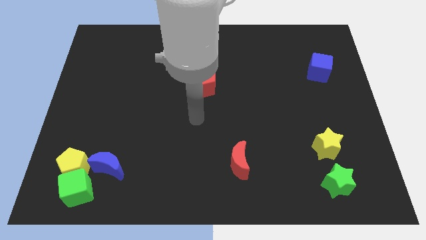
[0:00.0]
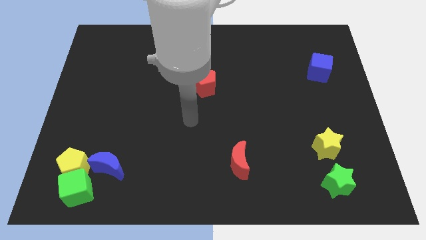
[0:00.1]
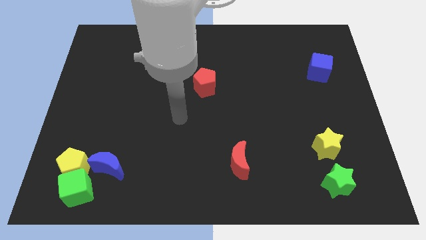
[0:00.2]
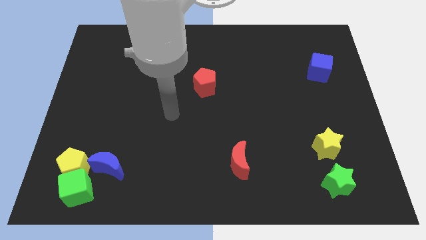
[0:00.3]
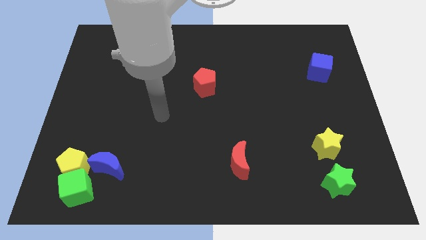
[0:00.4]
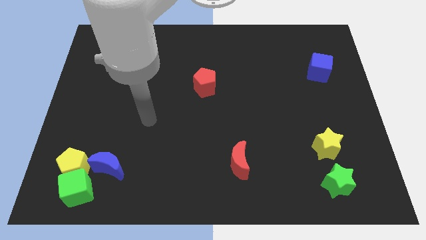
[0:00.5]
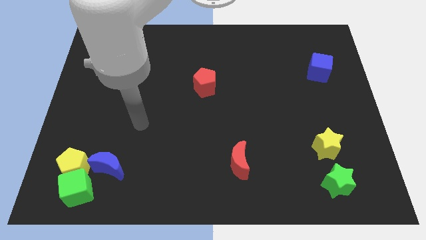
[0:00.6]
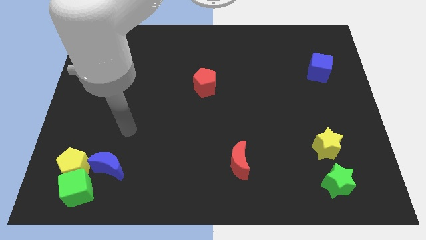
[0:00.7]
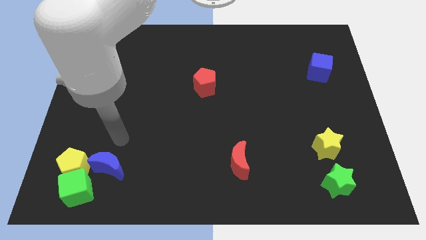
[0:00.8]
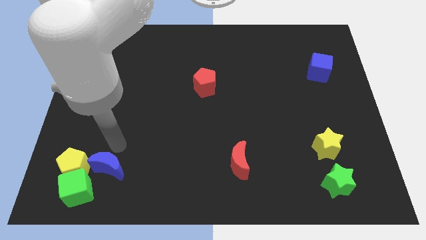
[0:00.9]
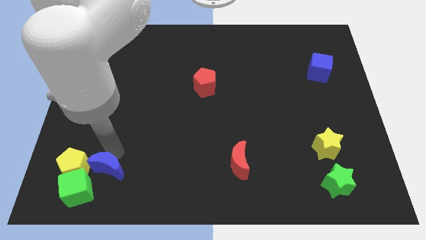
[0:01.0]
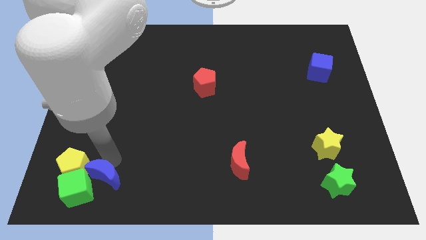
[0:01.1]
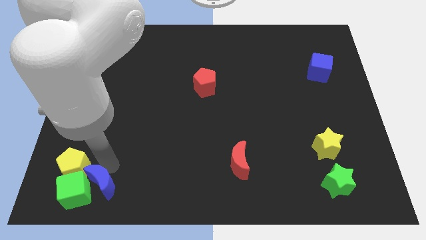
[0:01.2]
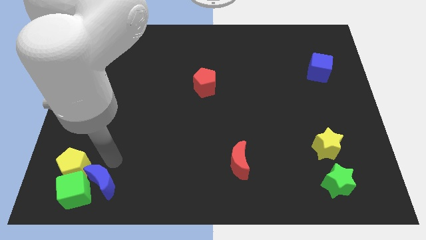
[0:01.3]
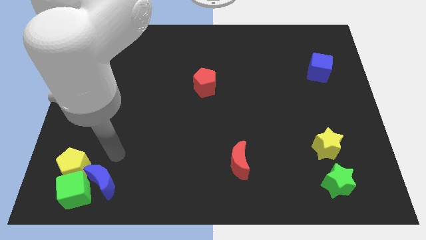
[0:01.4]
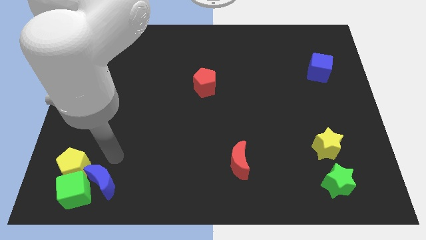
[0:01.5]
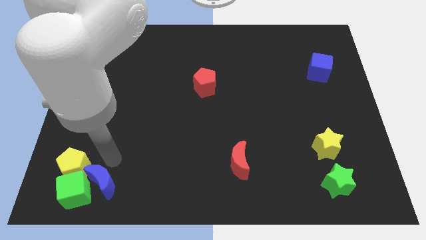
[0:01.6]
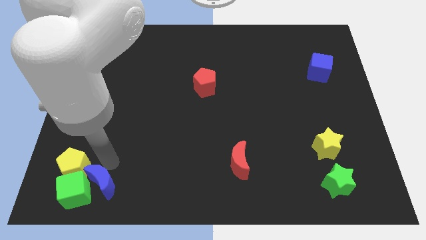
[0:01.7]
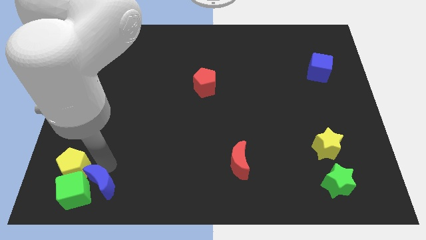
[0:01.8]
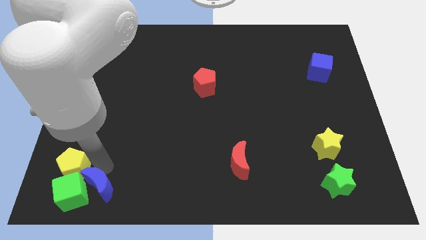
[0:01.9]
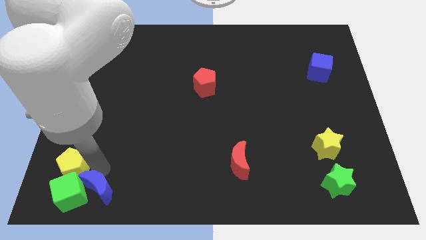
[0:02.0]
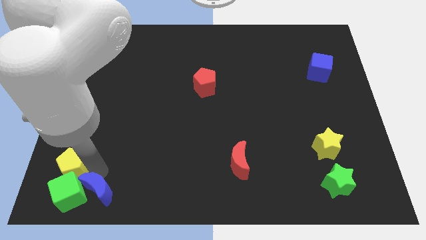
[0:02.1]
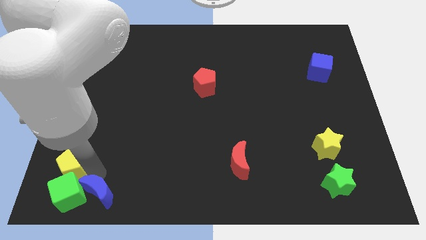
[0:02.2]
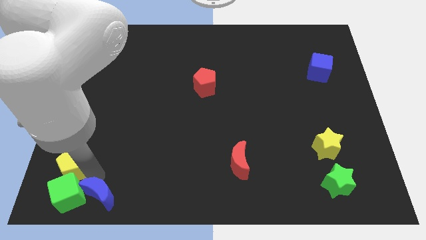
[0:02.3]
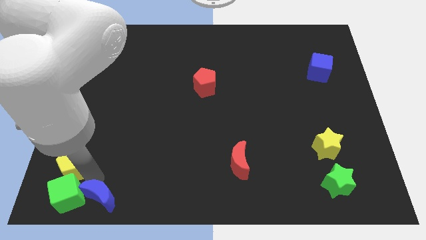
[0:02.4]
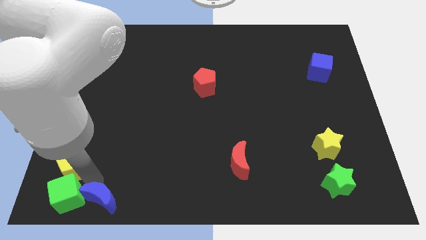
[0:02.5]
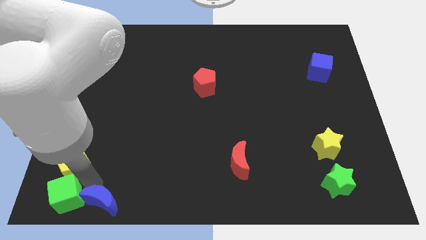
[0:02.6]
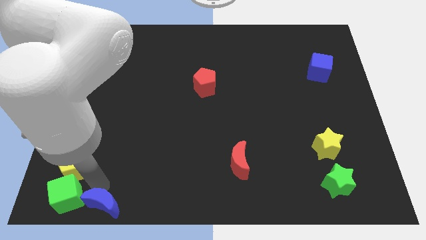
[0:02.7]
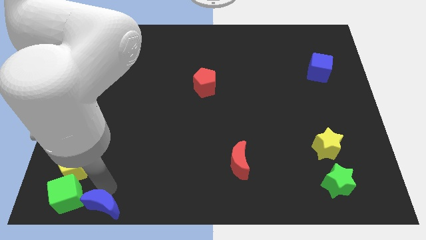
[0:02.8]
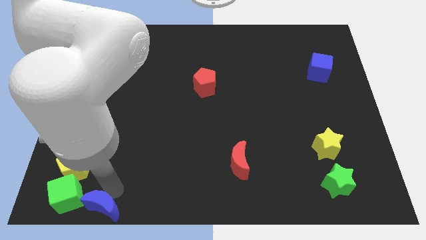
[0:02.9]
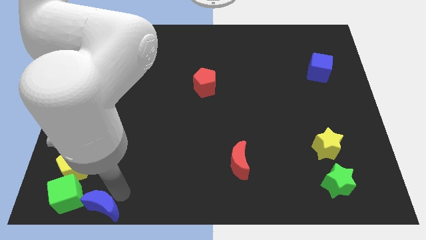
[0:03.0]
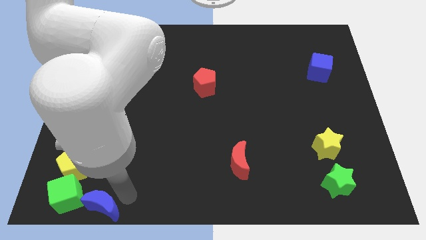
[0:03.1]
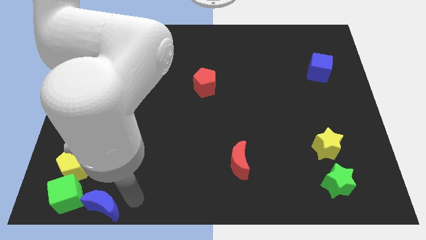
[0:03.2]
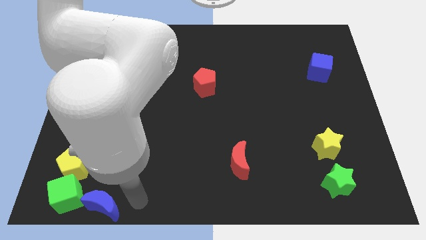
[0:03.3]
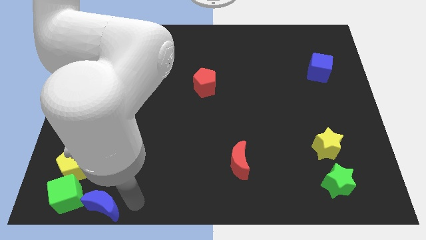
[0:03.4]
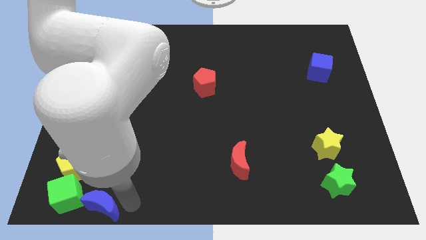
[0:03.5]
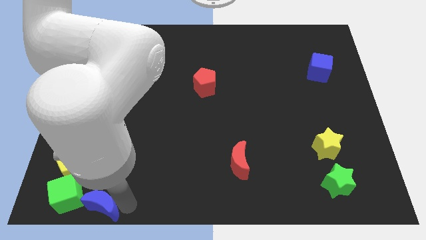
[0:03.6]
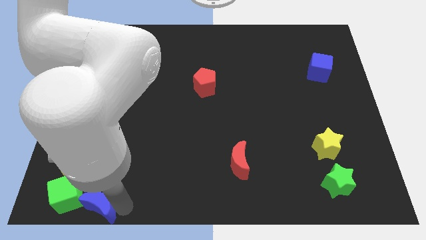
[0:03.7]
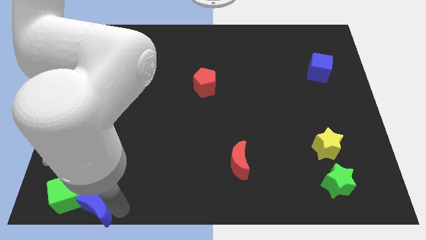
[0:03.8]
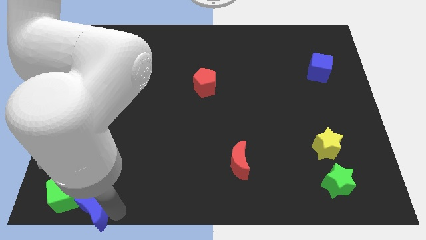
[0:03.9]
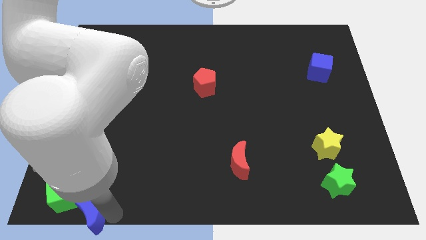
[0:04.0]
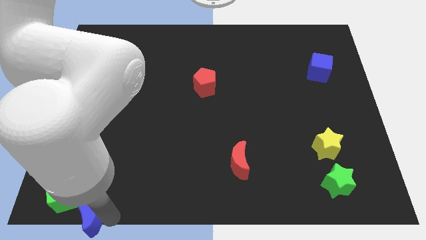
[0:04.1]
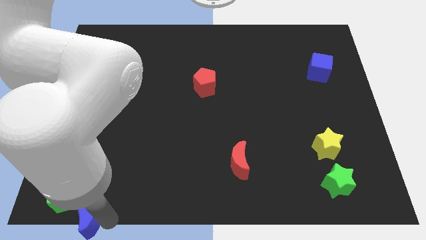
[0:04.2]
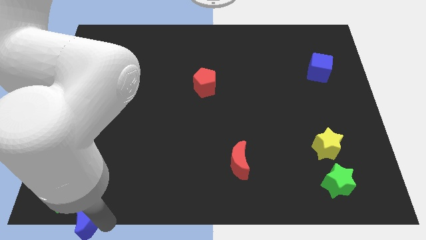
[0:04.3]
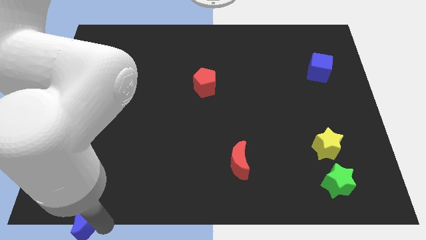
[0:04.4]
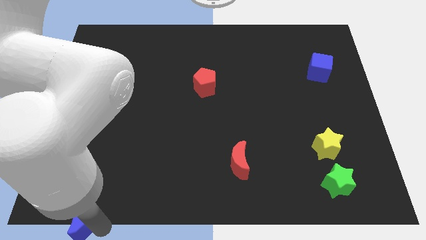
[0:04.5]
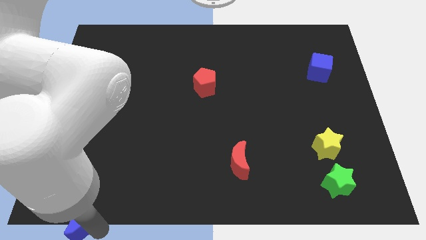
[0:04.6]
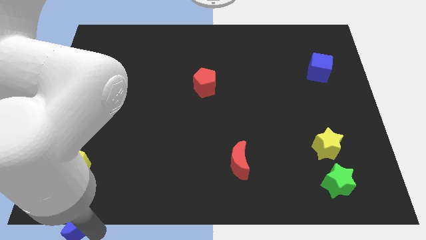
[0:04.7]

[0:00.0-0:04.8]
slide the blue moon to the lower left corner

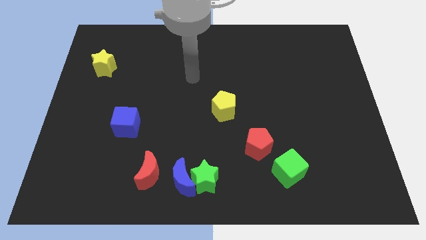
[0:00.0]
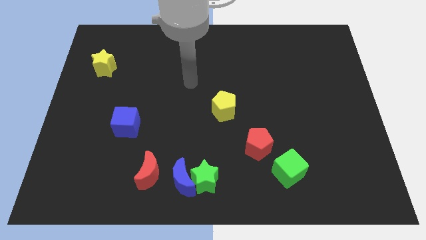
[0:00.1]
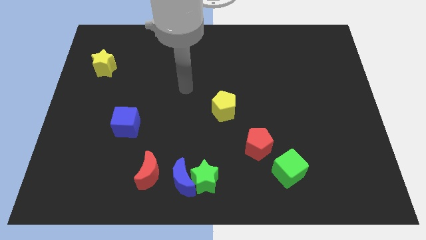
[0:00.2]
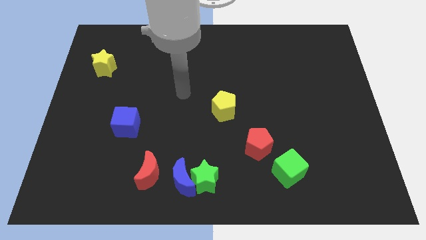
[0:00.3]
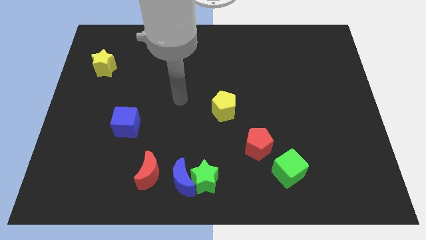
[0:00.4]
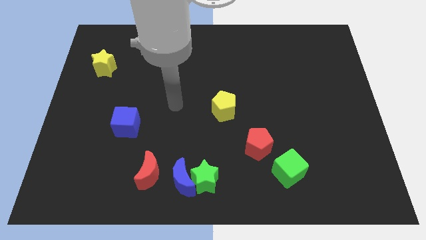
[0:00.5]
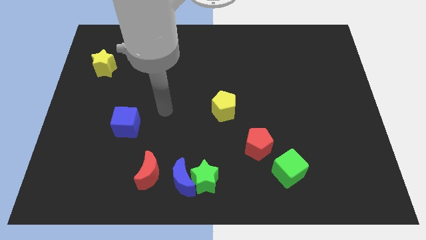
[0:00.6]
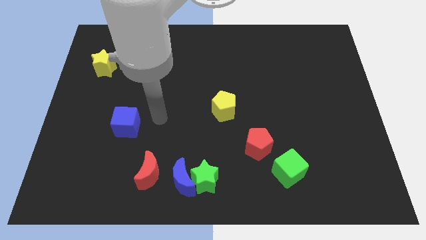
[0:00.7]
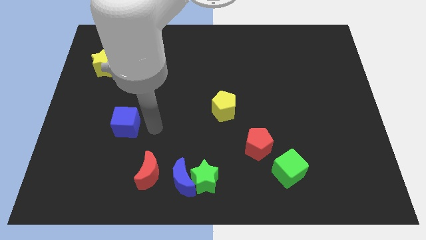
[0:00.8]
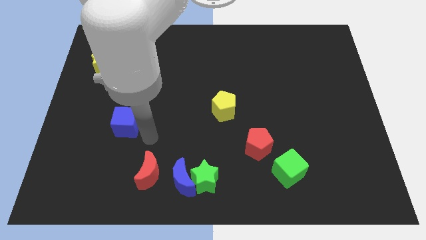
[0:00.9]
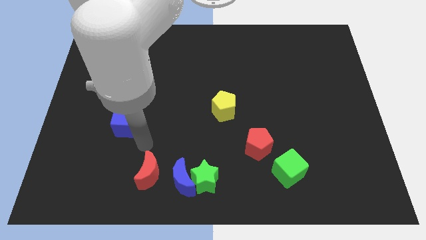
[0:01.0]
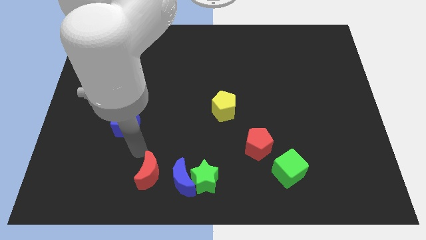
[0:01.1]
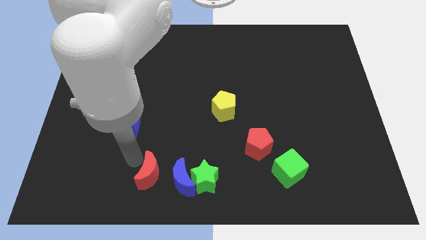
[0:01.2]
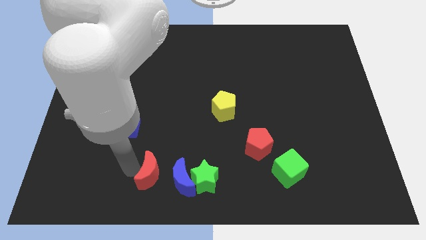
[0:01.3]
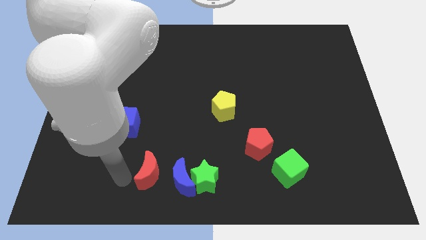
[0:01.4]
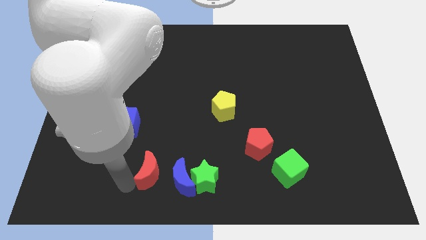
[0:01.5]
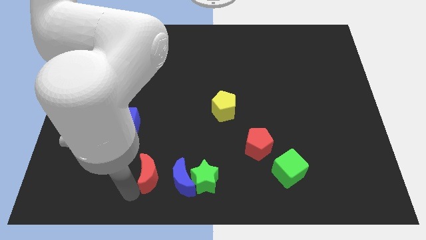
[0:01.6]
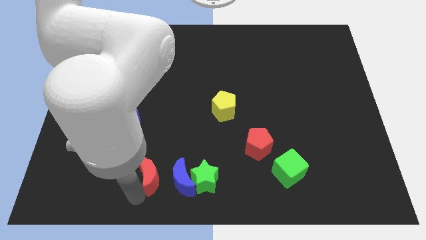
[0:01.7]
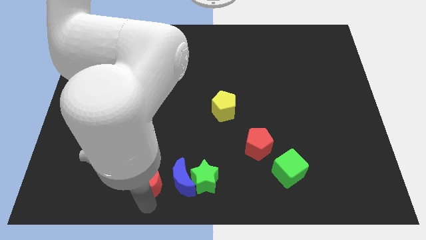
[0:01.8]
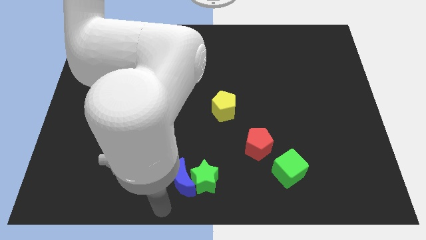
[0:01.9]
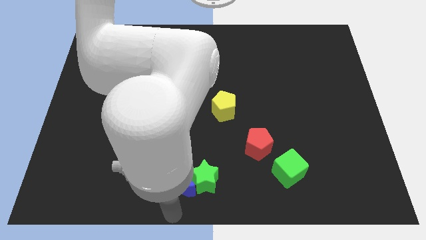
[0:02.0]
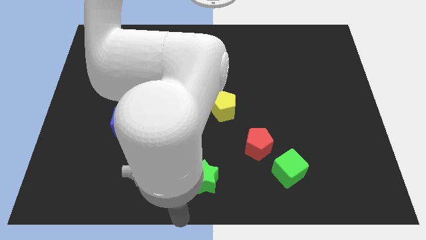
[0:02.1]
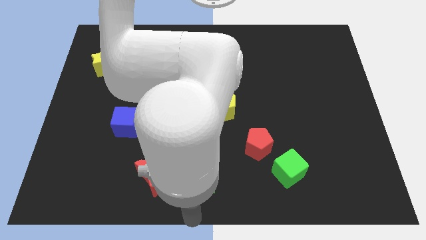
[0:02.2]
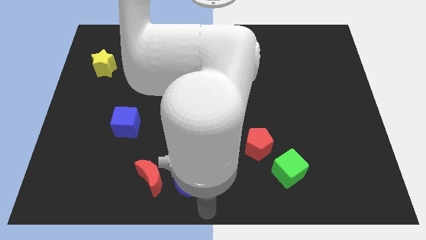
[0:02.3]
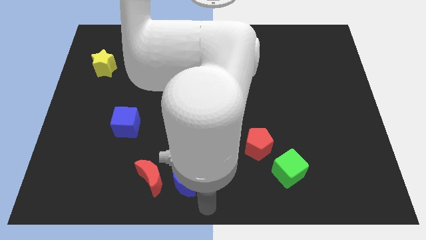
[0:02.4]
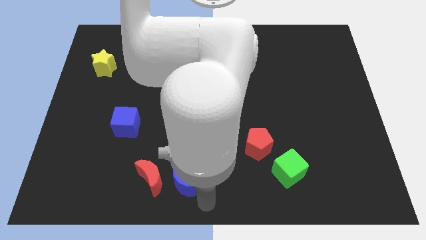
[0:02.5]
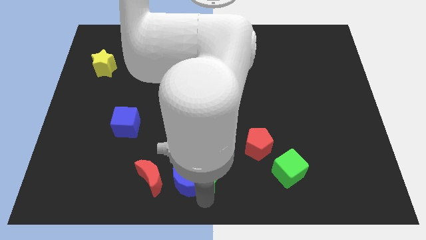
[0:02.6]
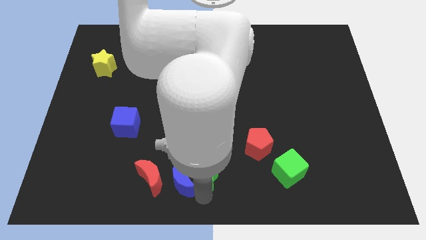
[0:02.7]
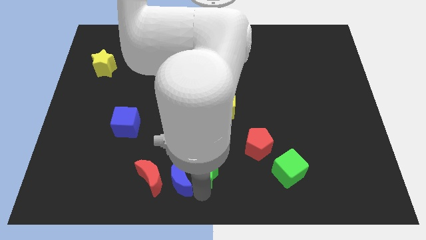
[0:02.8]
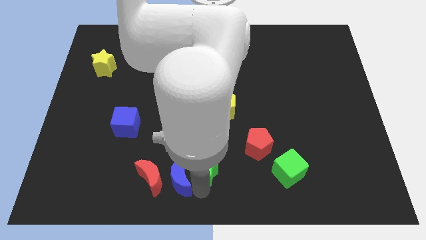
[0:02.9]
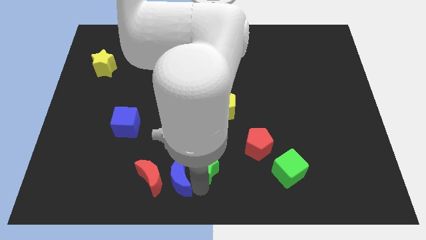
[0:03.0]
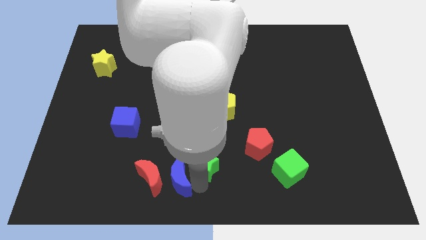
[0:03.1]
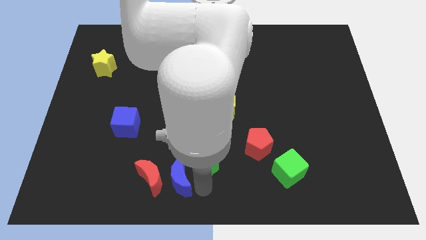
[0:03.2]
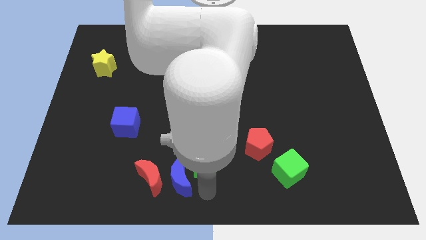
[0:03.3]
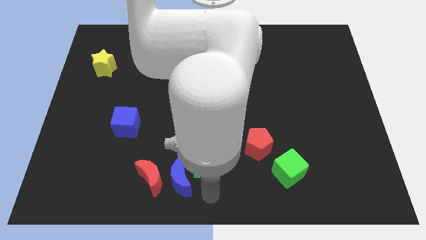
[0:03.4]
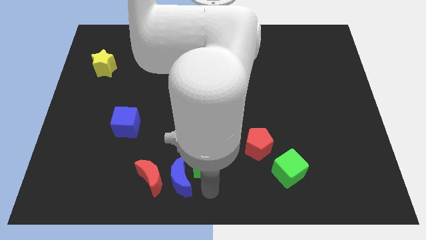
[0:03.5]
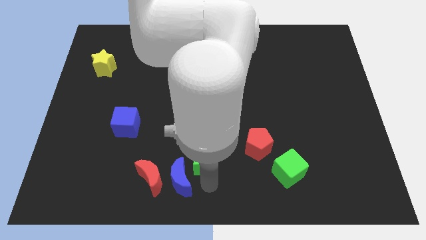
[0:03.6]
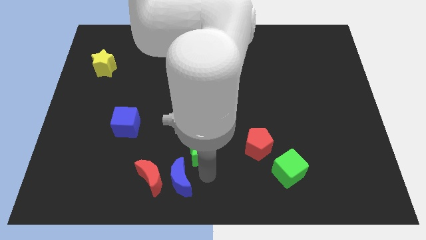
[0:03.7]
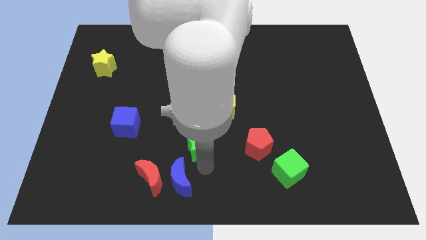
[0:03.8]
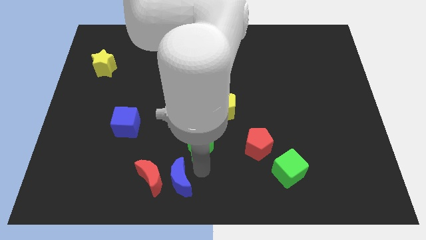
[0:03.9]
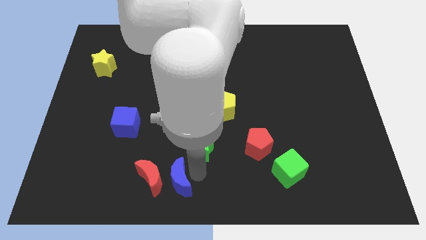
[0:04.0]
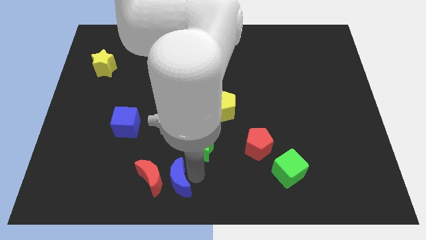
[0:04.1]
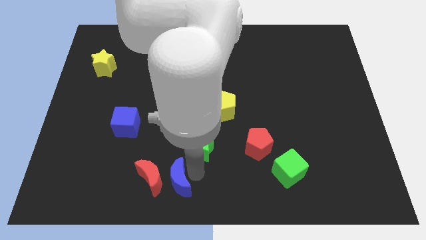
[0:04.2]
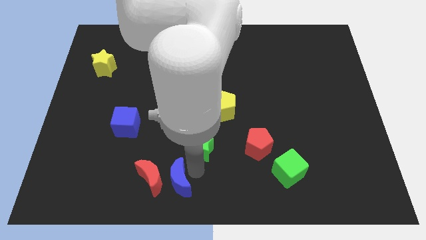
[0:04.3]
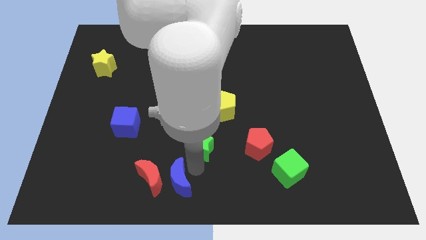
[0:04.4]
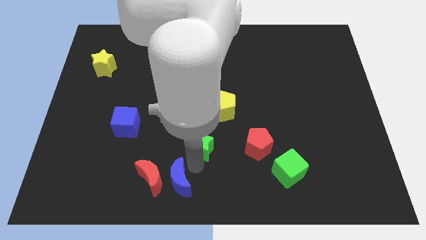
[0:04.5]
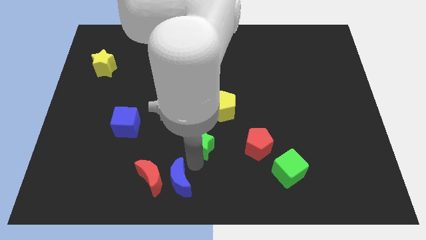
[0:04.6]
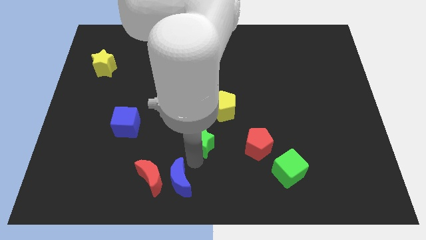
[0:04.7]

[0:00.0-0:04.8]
push the green star to the center of the board
